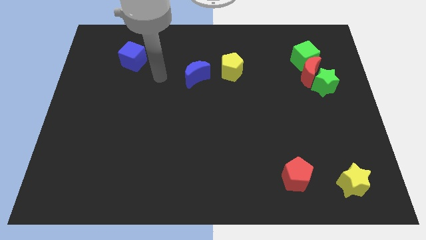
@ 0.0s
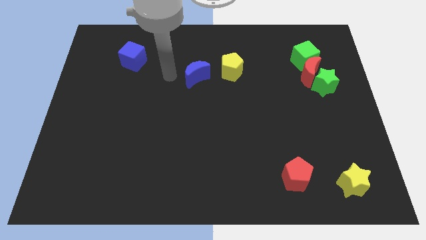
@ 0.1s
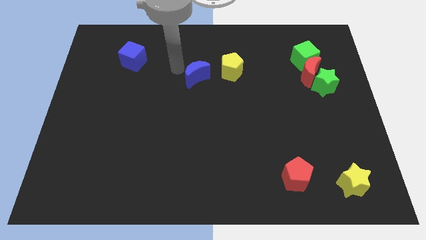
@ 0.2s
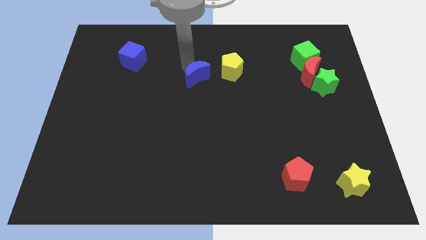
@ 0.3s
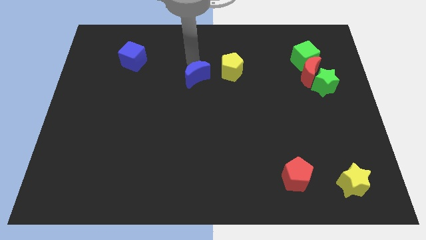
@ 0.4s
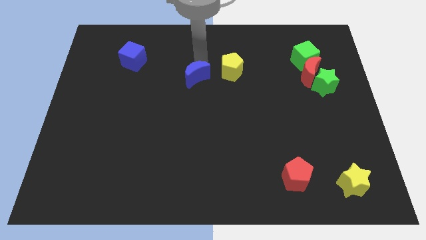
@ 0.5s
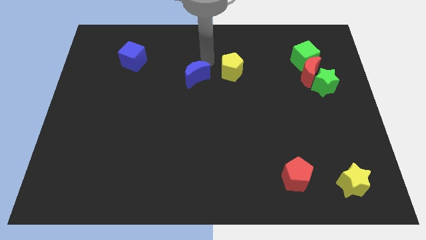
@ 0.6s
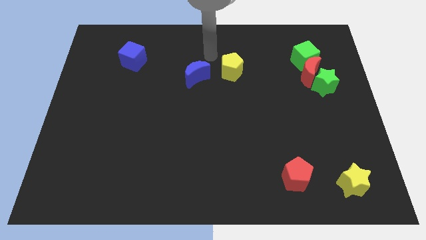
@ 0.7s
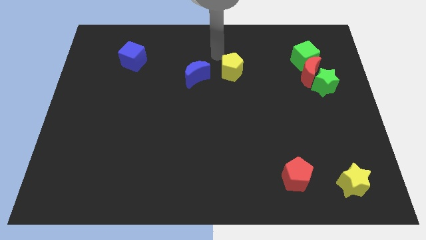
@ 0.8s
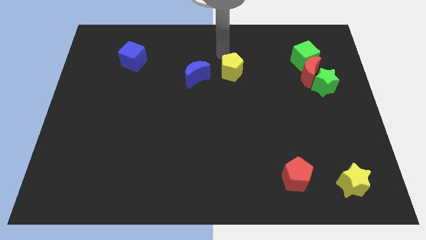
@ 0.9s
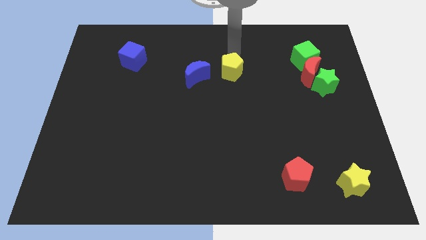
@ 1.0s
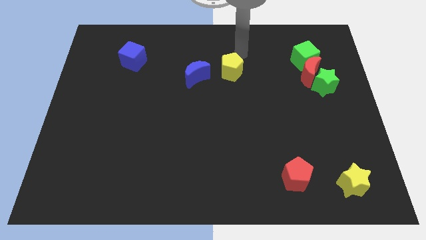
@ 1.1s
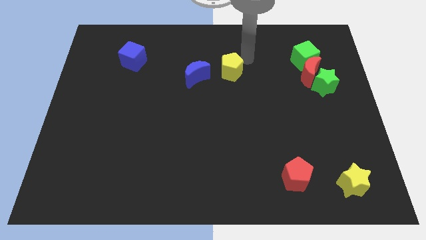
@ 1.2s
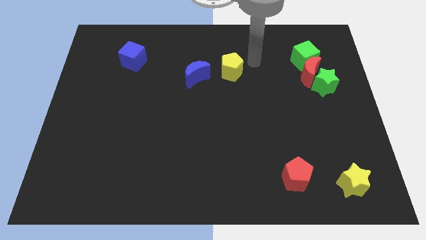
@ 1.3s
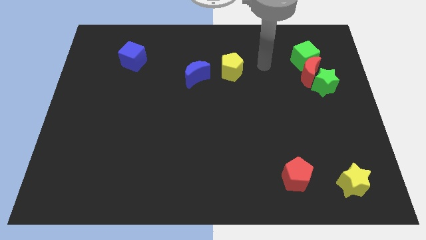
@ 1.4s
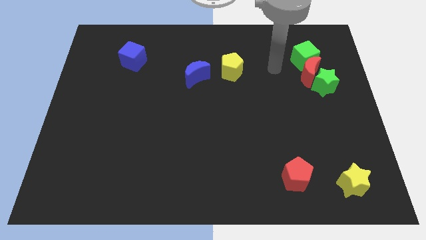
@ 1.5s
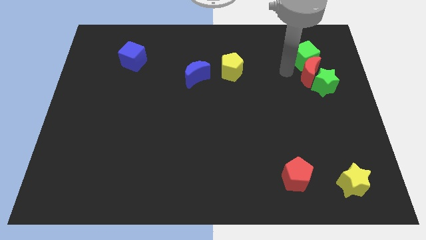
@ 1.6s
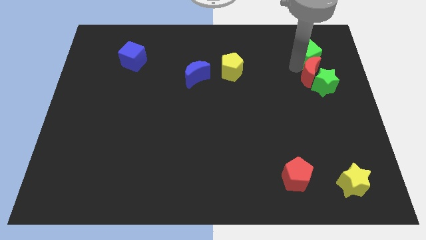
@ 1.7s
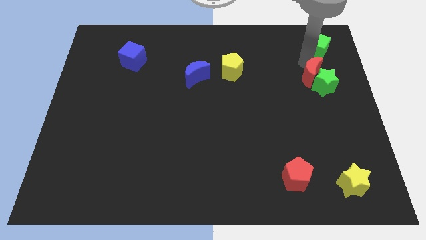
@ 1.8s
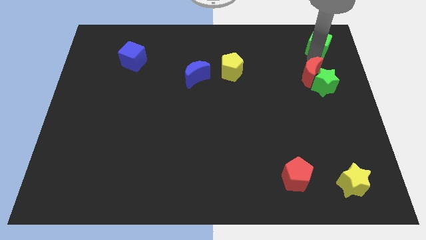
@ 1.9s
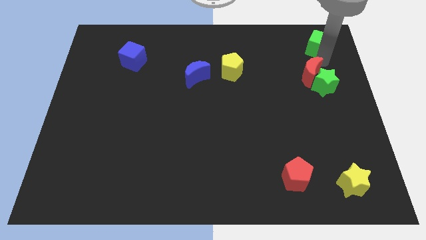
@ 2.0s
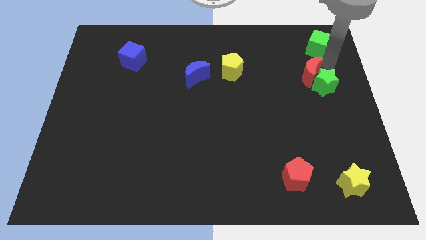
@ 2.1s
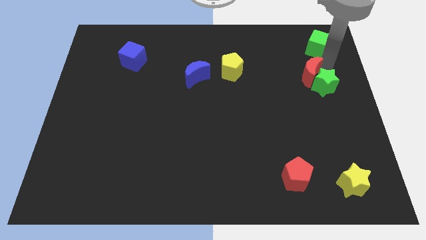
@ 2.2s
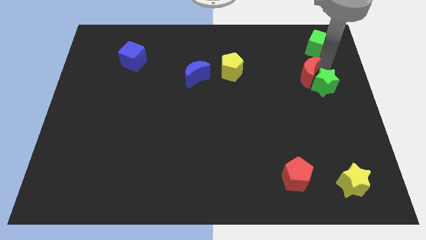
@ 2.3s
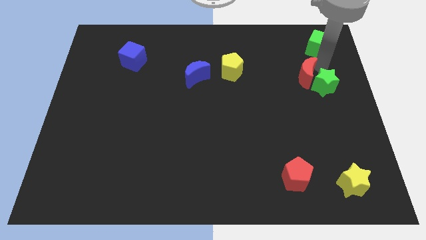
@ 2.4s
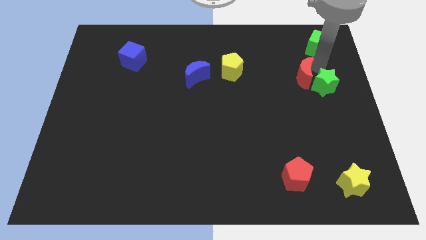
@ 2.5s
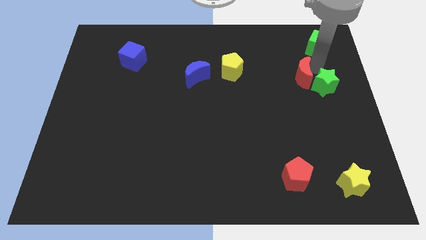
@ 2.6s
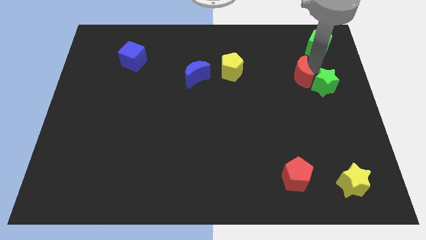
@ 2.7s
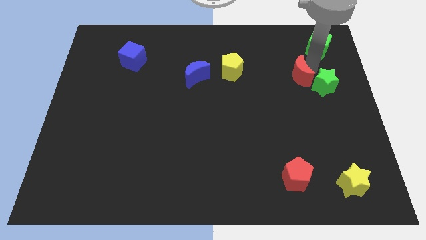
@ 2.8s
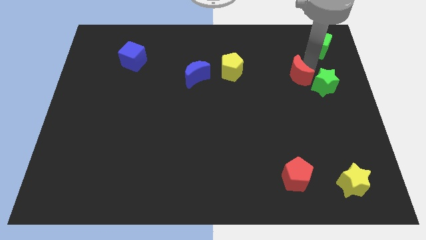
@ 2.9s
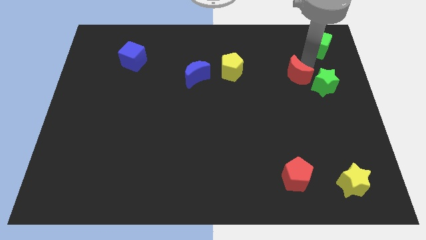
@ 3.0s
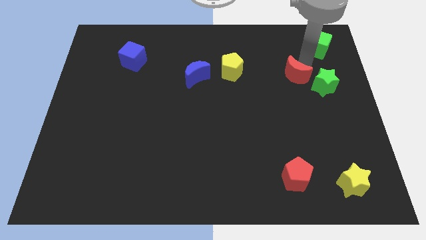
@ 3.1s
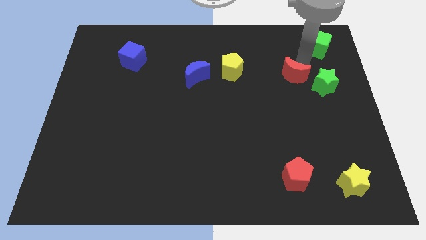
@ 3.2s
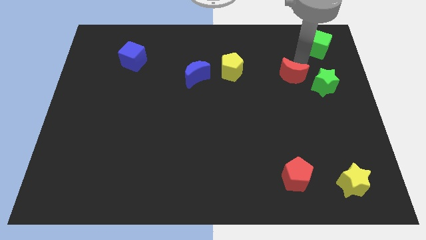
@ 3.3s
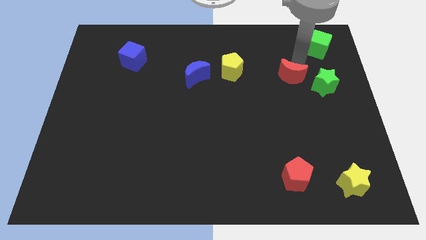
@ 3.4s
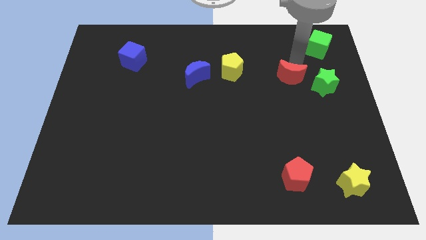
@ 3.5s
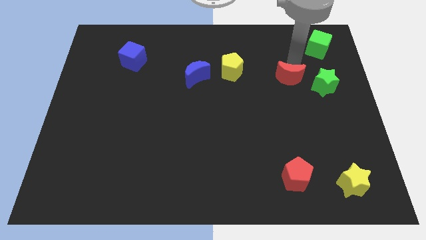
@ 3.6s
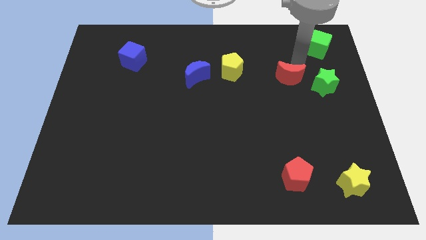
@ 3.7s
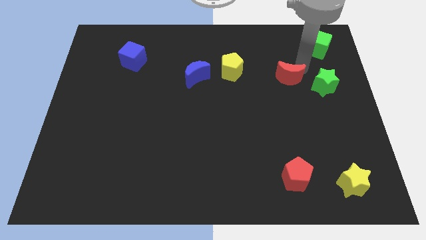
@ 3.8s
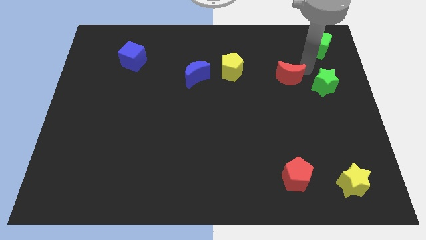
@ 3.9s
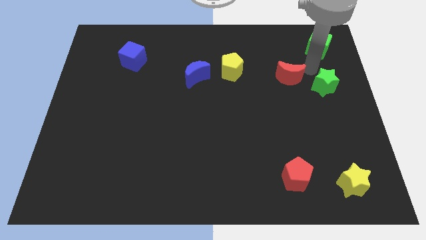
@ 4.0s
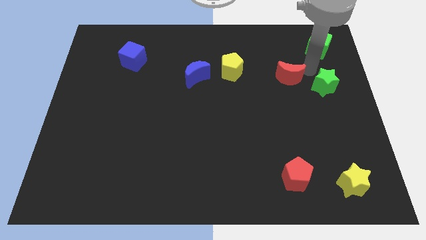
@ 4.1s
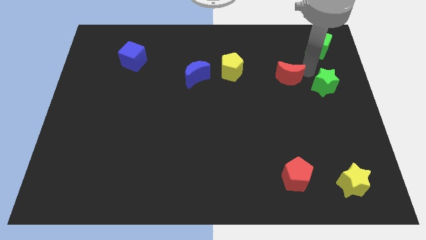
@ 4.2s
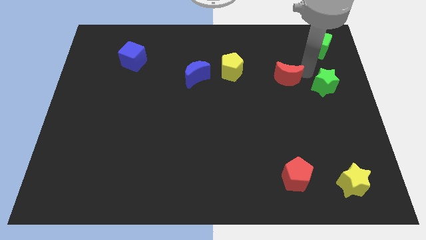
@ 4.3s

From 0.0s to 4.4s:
pull the red moon apart from the green star and green cube

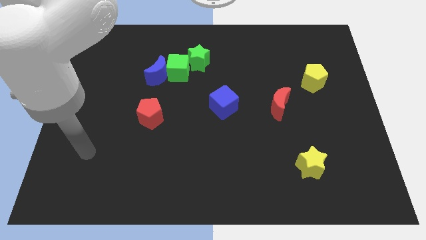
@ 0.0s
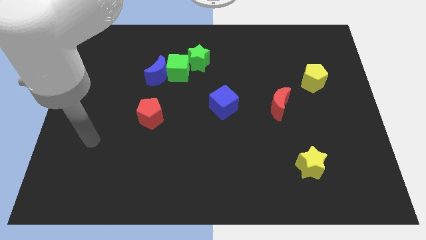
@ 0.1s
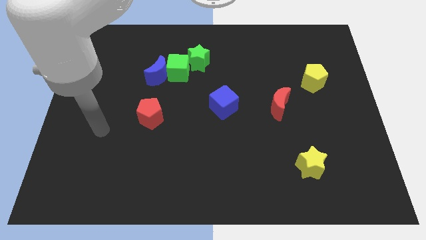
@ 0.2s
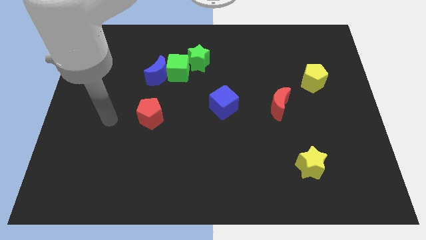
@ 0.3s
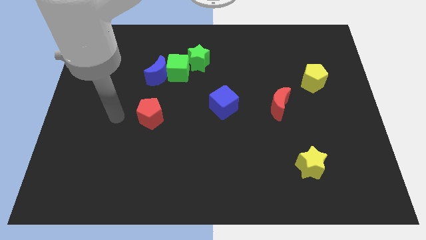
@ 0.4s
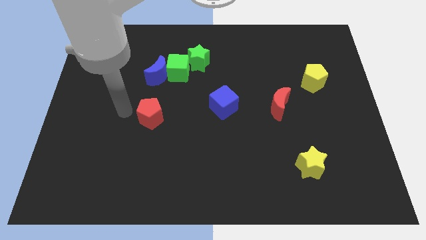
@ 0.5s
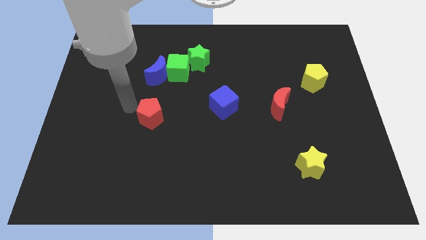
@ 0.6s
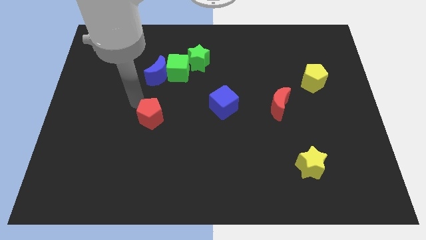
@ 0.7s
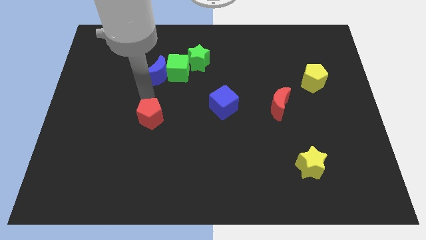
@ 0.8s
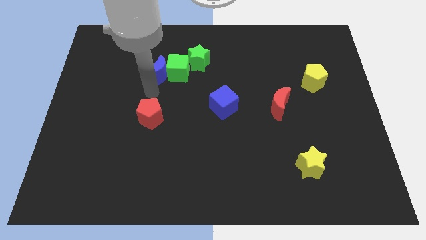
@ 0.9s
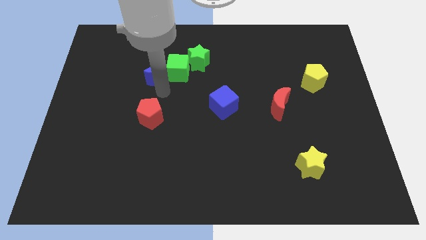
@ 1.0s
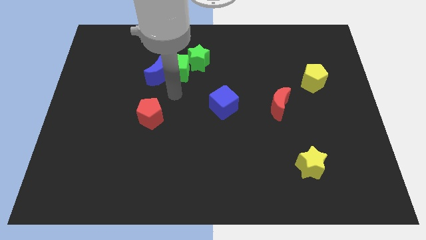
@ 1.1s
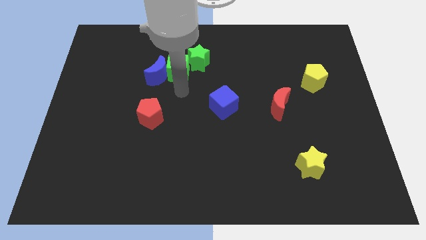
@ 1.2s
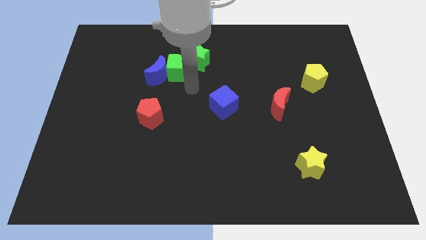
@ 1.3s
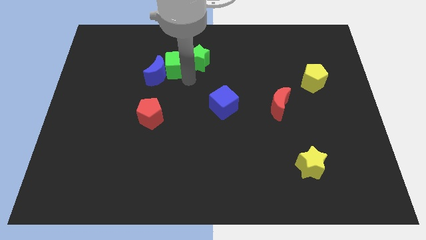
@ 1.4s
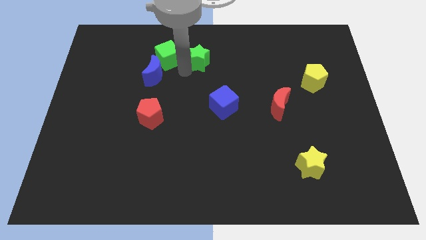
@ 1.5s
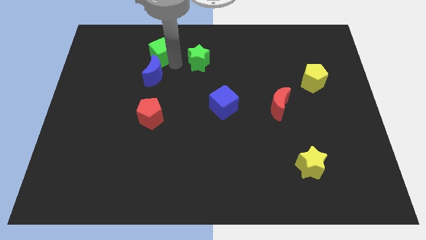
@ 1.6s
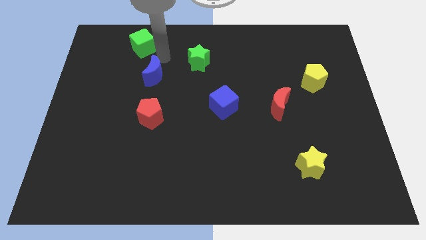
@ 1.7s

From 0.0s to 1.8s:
separate the blue moon from the green cube

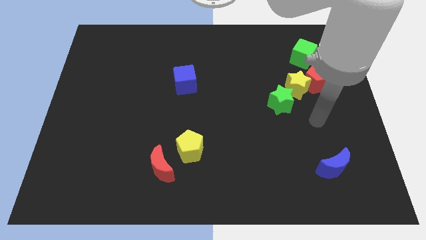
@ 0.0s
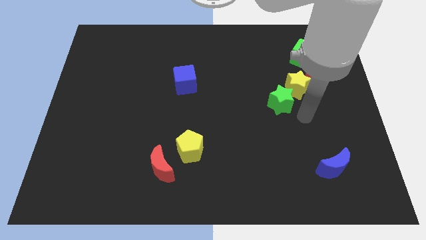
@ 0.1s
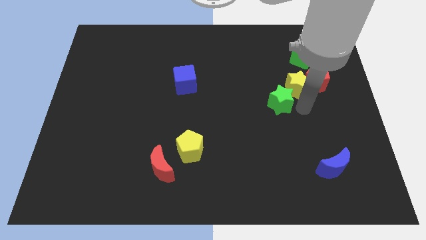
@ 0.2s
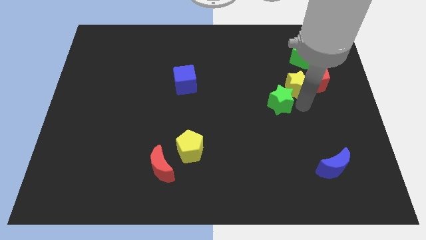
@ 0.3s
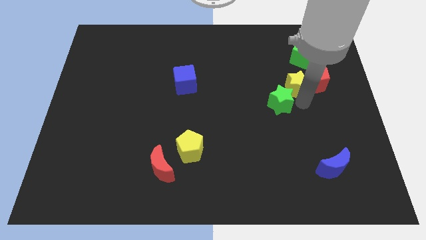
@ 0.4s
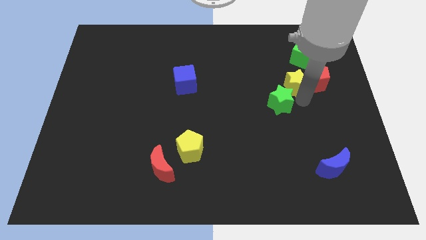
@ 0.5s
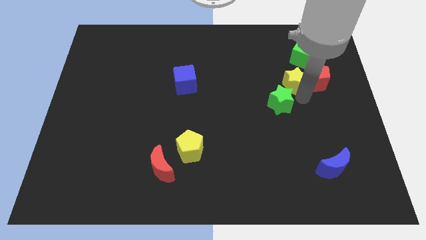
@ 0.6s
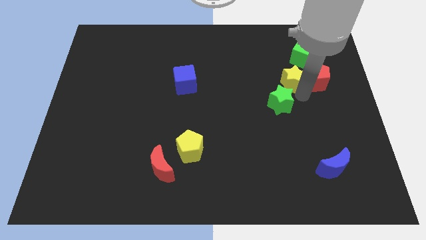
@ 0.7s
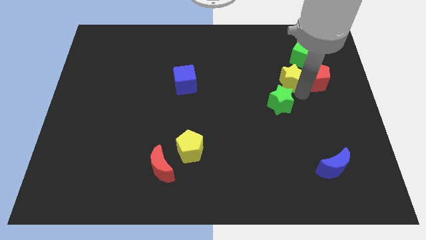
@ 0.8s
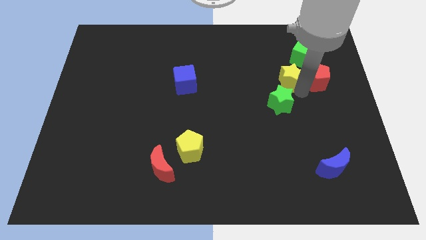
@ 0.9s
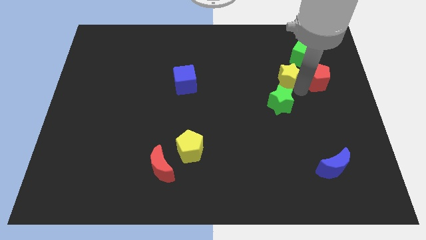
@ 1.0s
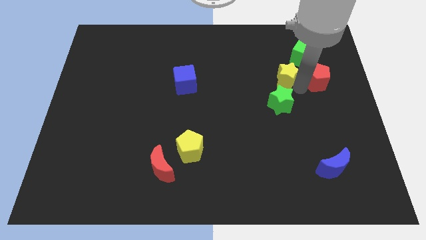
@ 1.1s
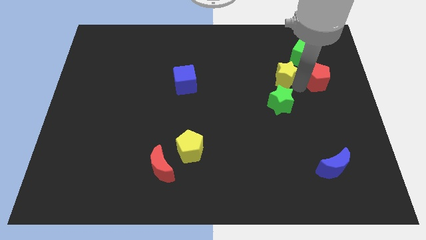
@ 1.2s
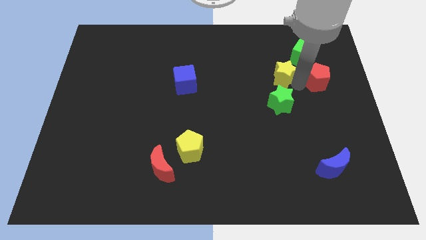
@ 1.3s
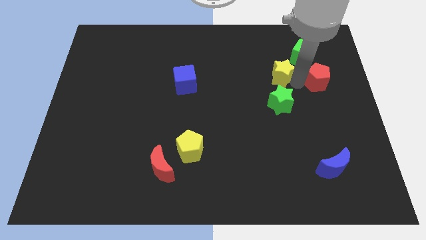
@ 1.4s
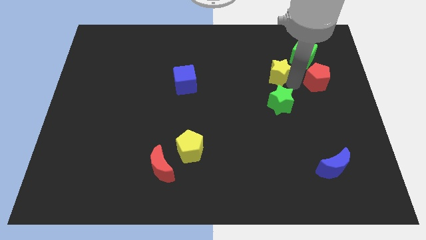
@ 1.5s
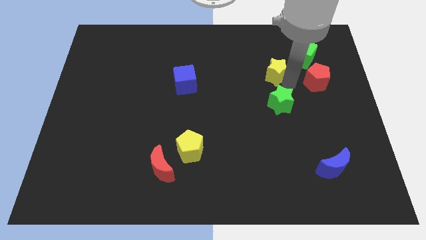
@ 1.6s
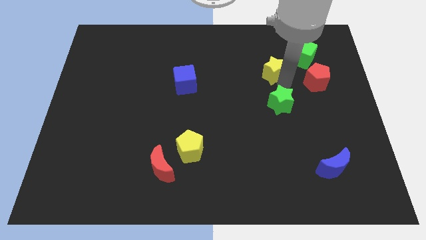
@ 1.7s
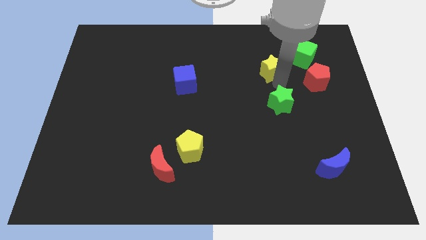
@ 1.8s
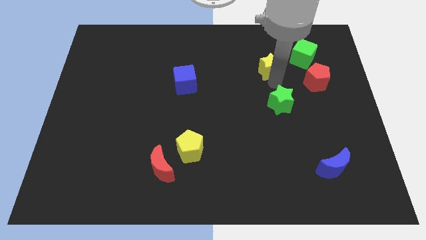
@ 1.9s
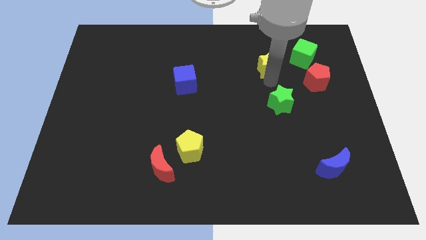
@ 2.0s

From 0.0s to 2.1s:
pull the yellow star apart from the red pentagon and green star

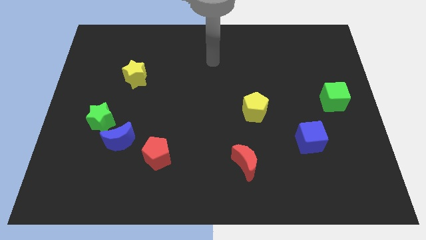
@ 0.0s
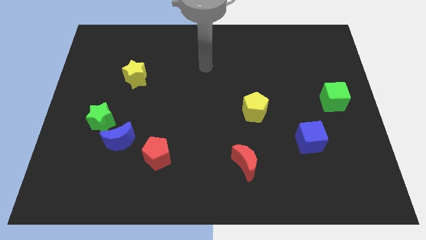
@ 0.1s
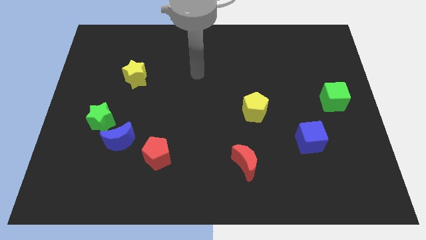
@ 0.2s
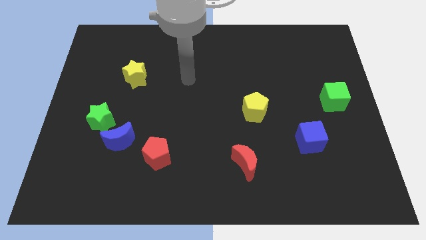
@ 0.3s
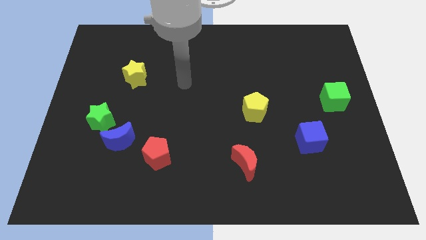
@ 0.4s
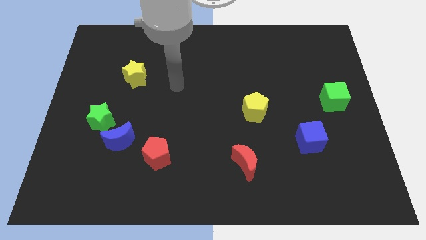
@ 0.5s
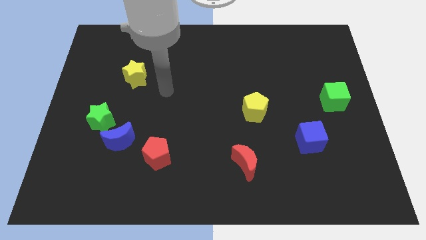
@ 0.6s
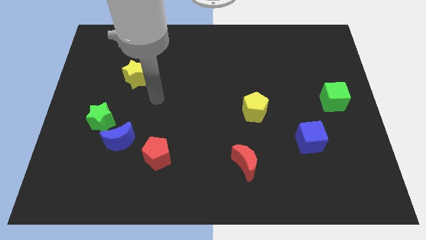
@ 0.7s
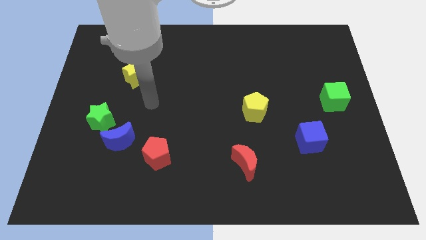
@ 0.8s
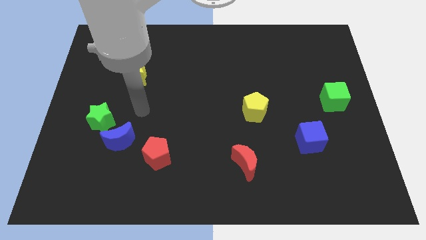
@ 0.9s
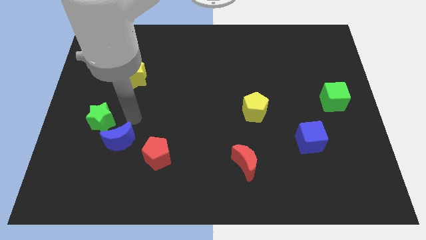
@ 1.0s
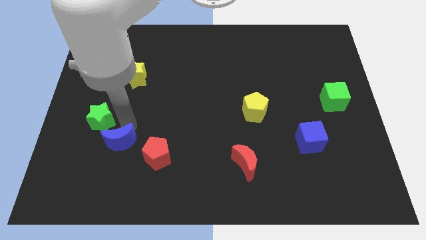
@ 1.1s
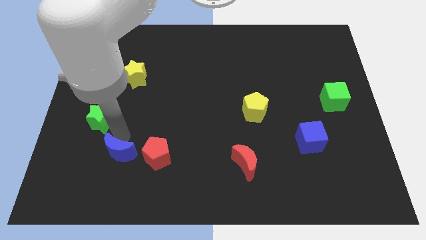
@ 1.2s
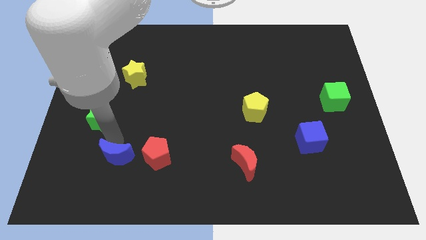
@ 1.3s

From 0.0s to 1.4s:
pull the green star apart from the blue moon
